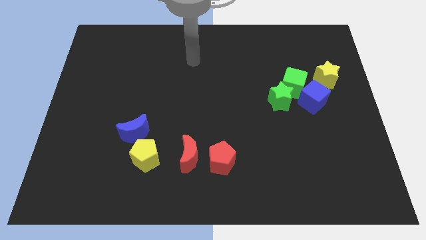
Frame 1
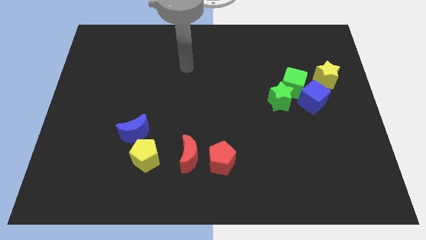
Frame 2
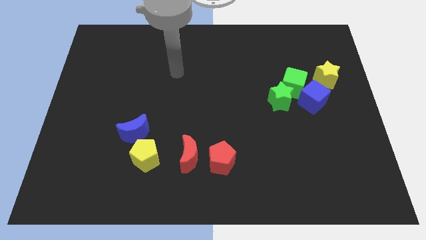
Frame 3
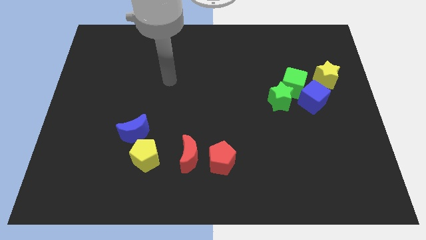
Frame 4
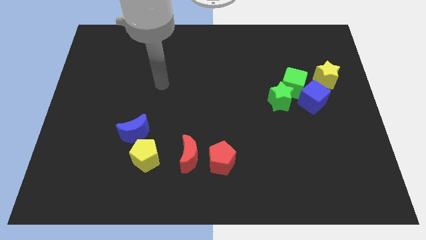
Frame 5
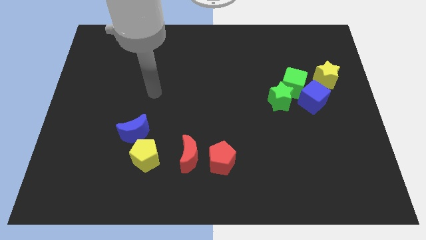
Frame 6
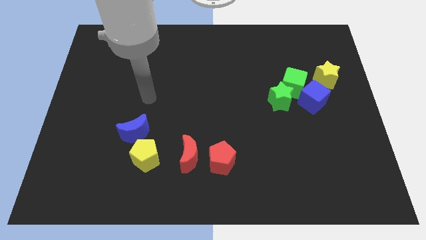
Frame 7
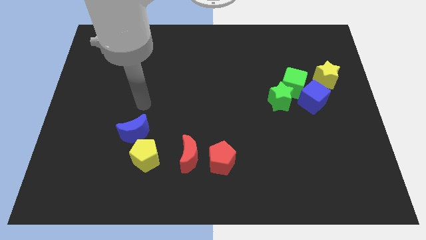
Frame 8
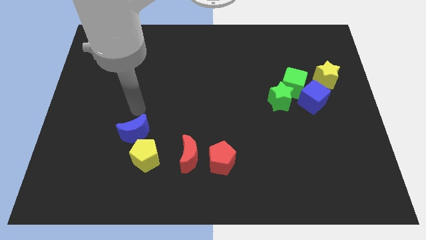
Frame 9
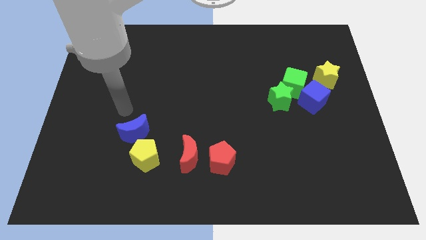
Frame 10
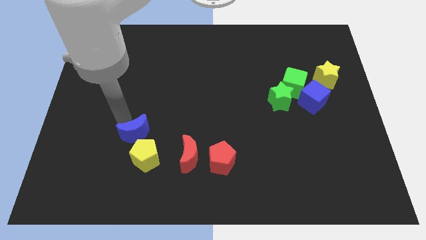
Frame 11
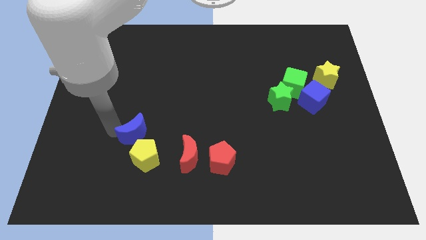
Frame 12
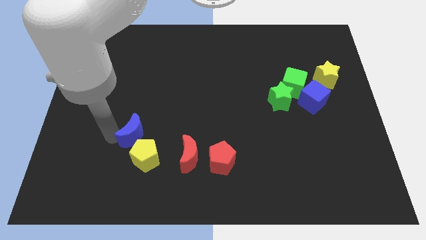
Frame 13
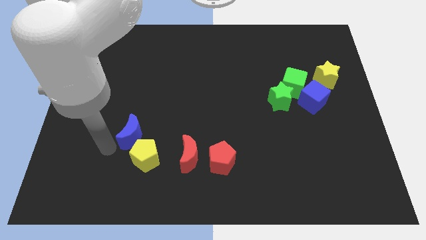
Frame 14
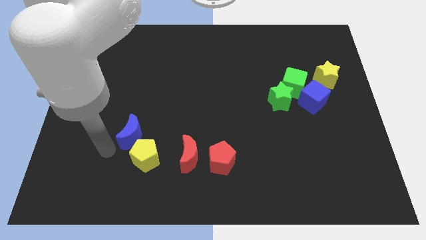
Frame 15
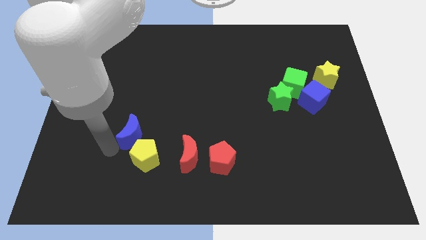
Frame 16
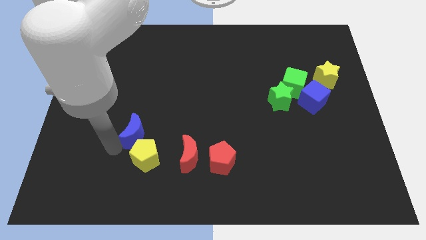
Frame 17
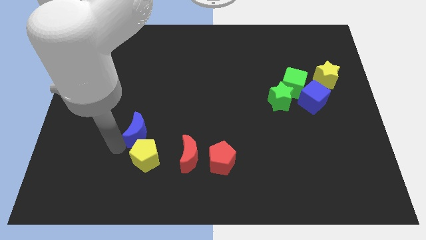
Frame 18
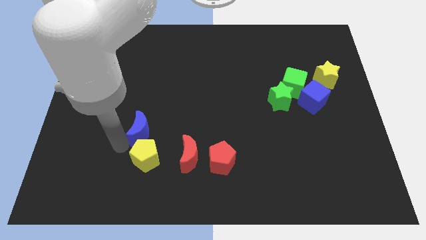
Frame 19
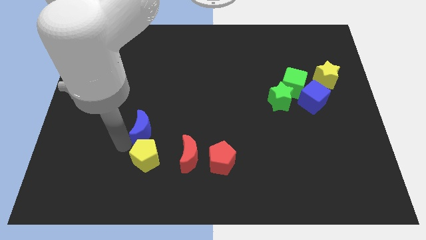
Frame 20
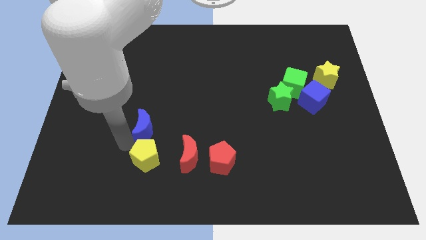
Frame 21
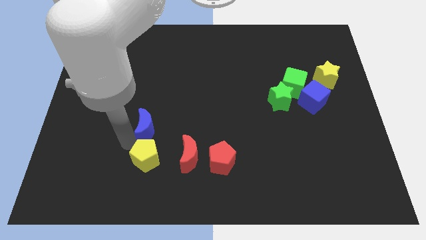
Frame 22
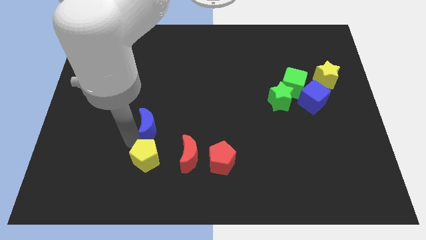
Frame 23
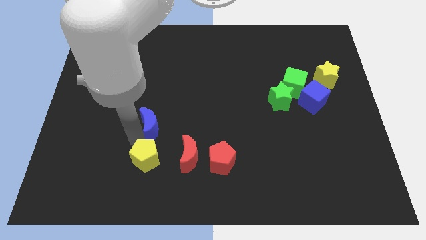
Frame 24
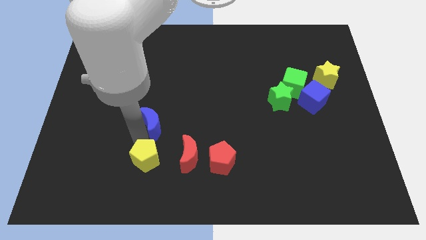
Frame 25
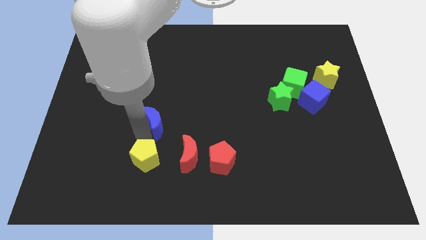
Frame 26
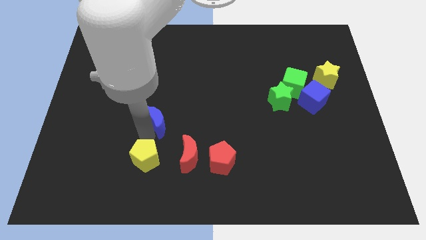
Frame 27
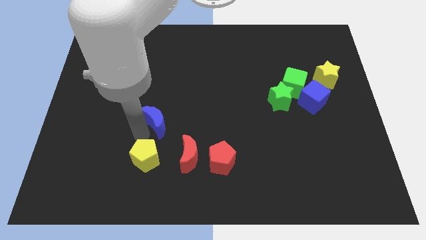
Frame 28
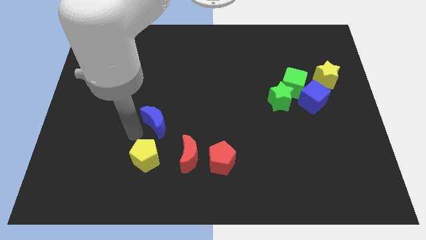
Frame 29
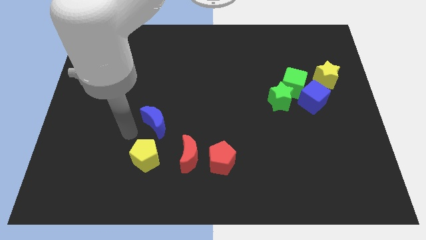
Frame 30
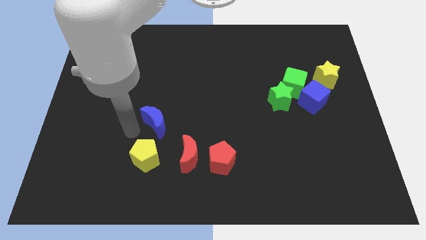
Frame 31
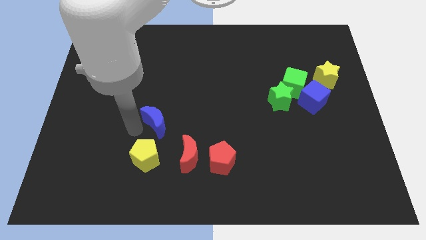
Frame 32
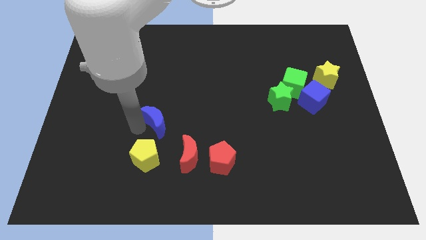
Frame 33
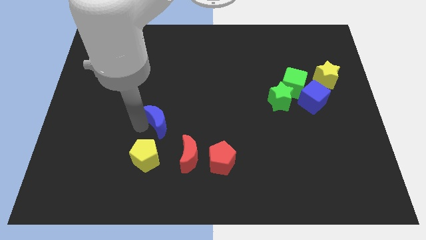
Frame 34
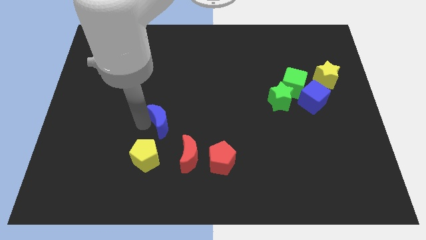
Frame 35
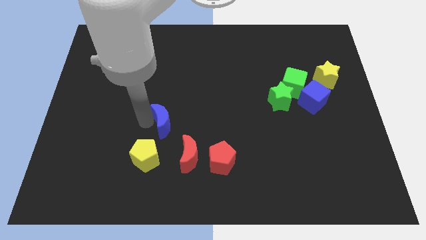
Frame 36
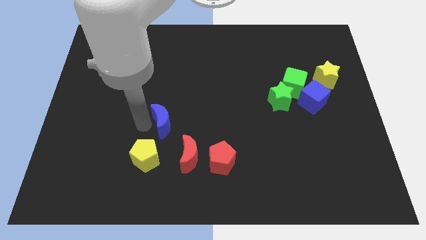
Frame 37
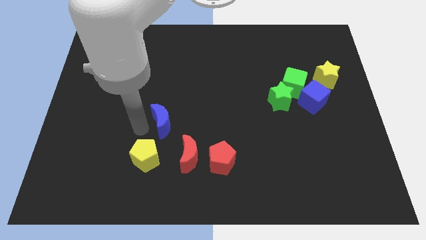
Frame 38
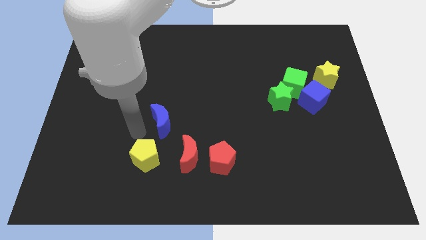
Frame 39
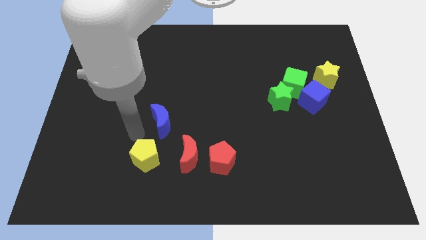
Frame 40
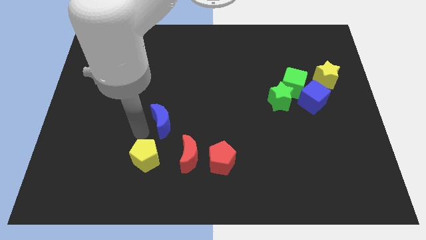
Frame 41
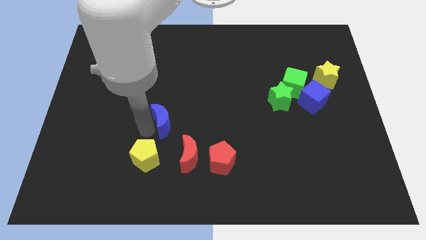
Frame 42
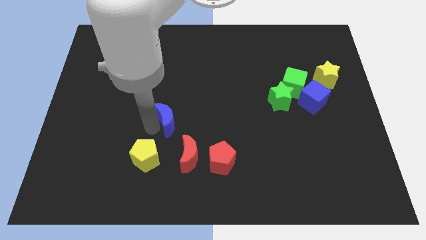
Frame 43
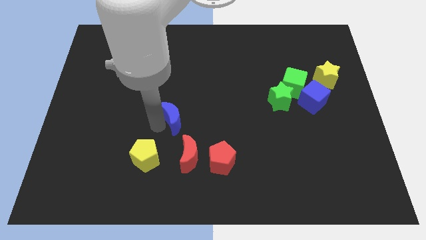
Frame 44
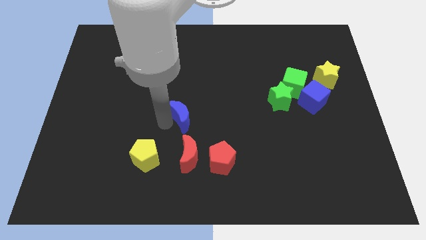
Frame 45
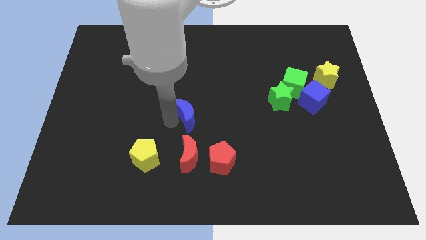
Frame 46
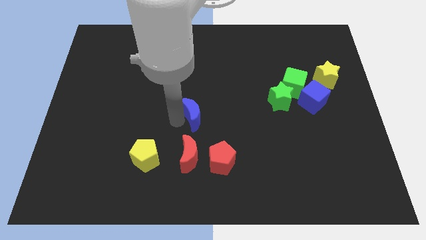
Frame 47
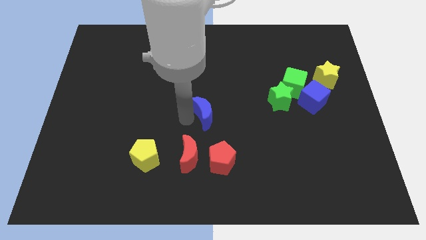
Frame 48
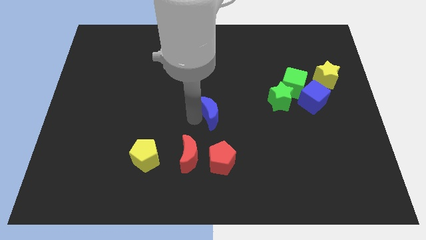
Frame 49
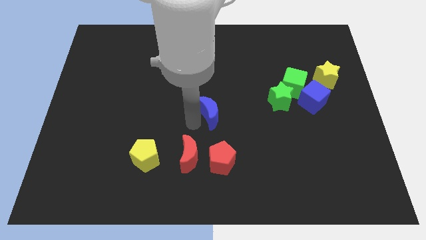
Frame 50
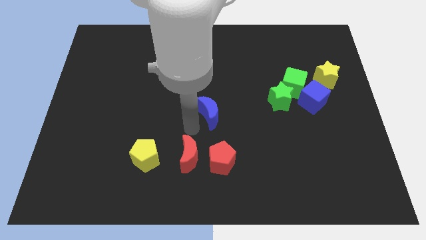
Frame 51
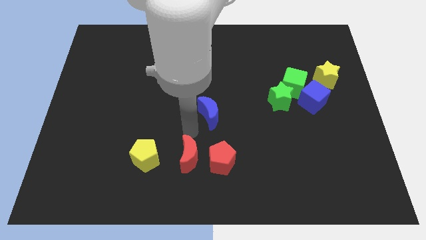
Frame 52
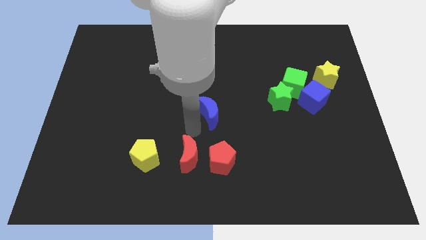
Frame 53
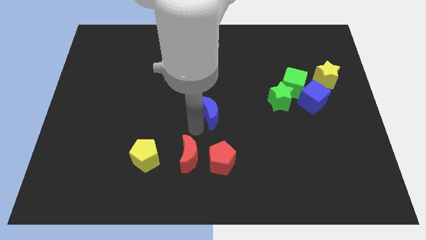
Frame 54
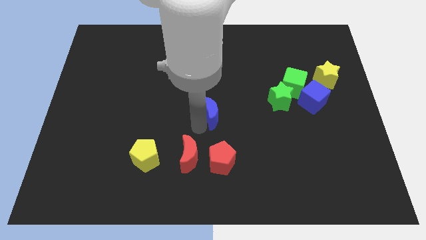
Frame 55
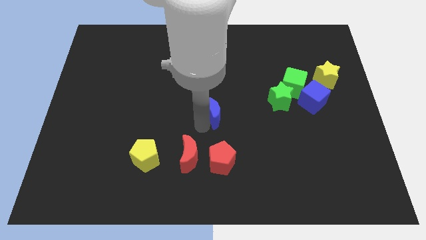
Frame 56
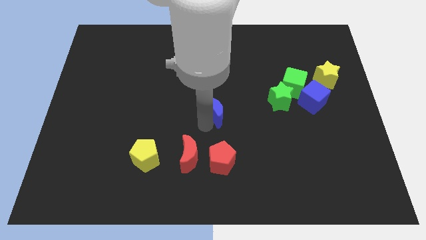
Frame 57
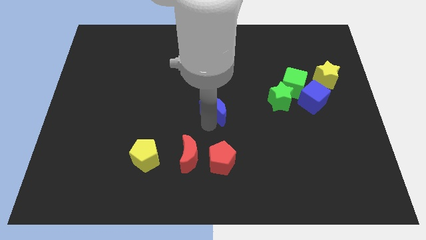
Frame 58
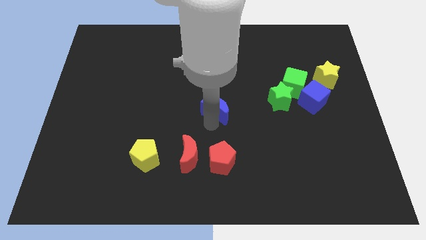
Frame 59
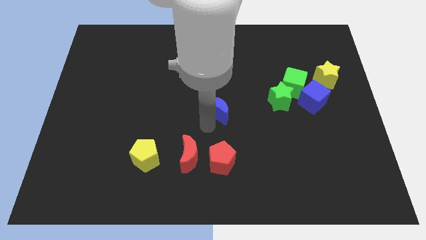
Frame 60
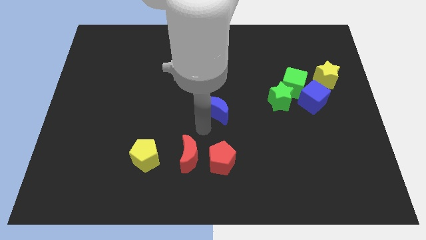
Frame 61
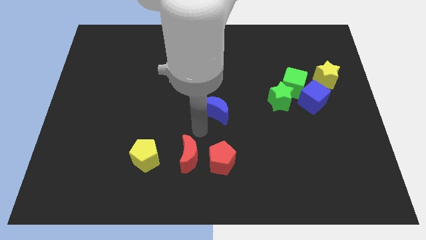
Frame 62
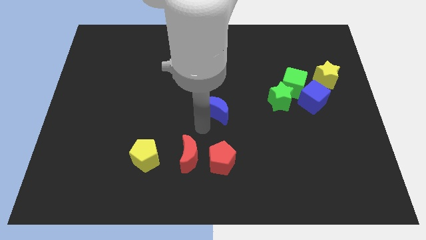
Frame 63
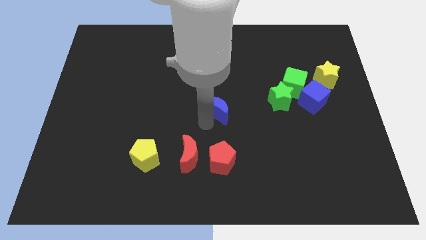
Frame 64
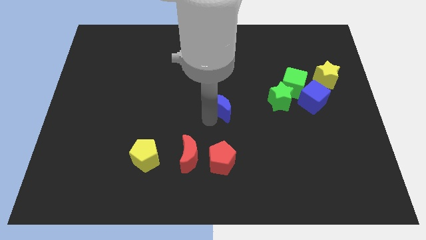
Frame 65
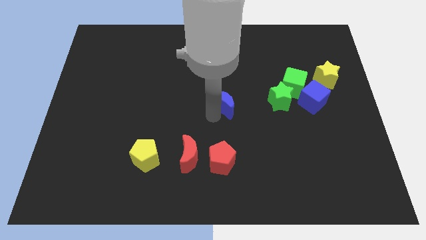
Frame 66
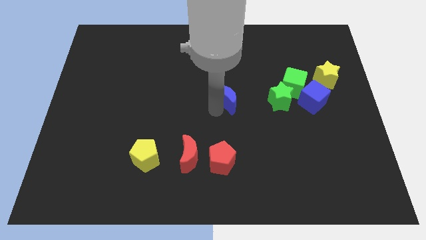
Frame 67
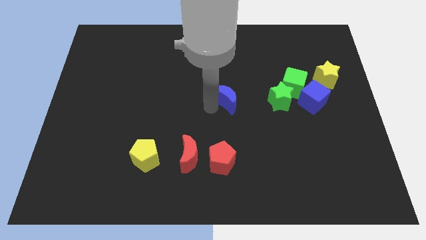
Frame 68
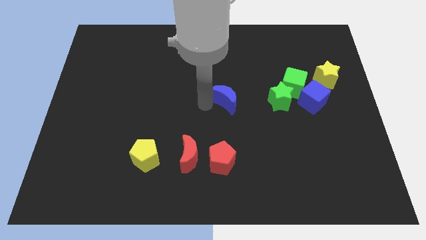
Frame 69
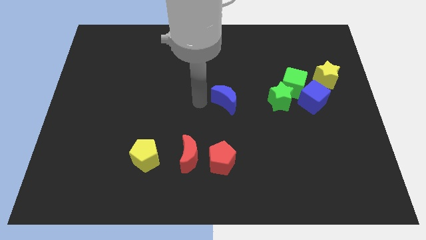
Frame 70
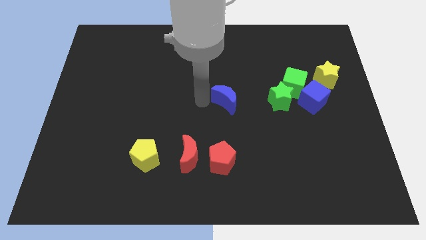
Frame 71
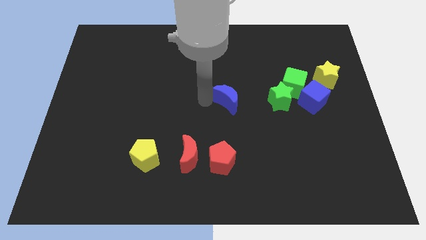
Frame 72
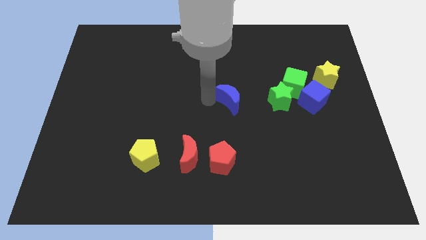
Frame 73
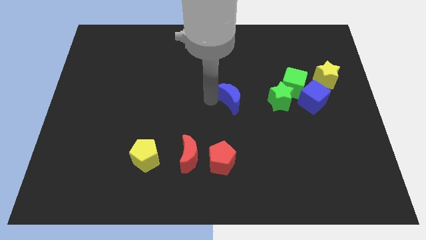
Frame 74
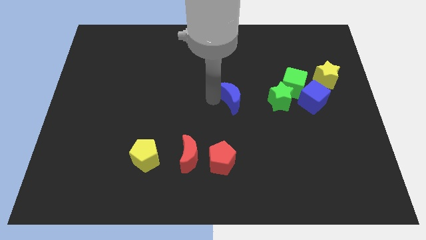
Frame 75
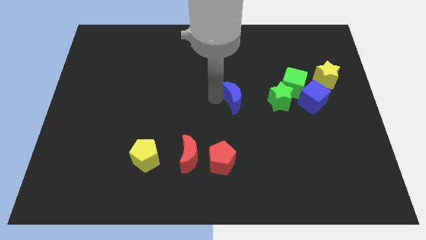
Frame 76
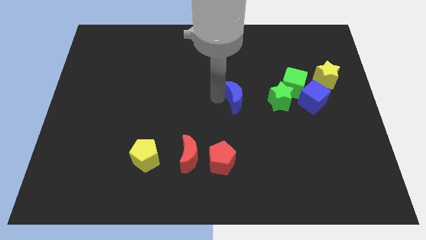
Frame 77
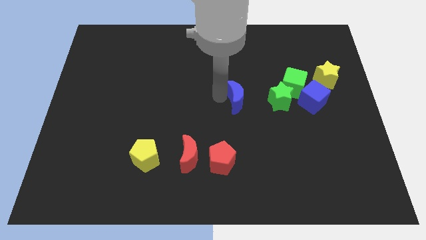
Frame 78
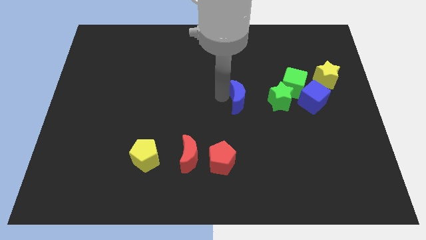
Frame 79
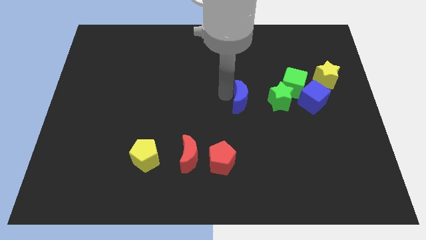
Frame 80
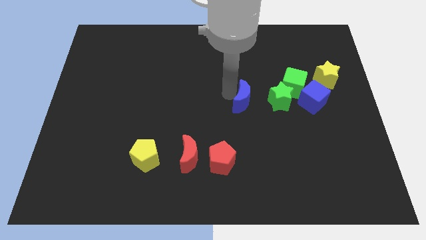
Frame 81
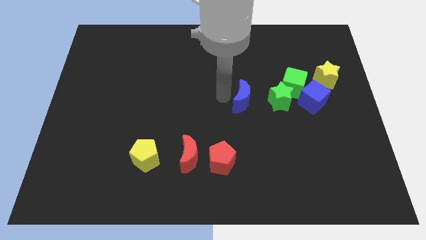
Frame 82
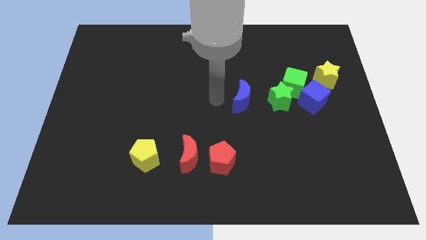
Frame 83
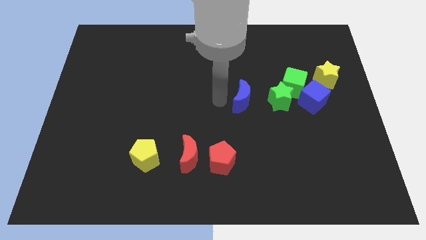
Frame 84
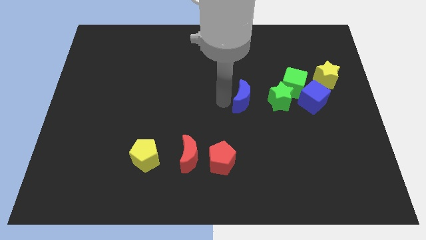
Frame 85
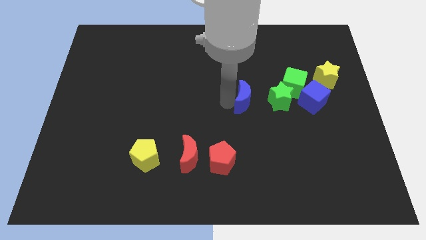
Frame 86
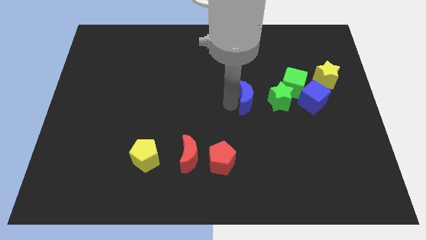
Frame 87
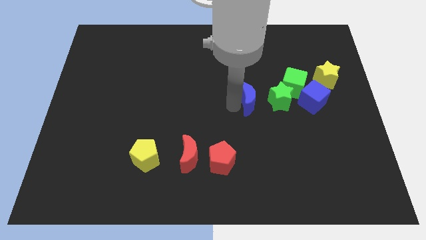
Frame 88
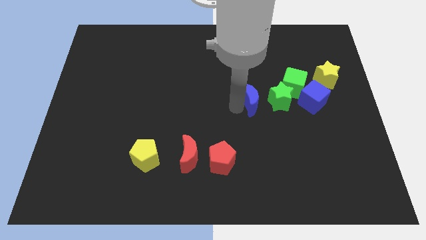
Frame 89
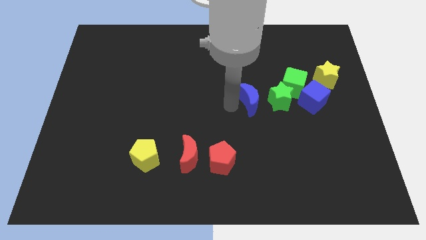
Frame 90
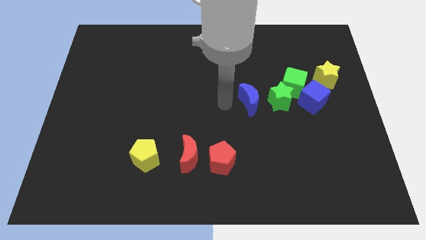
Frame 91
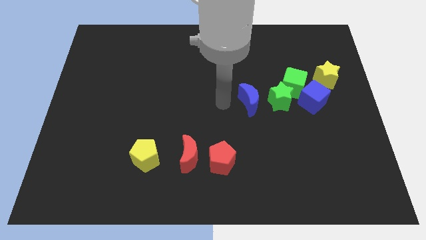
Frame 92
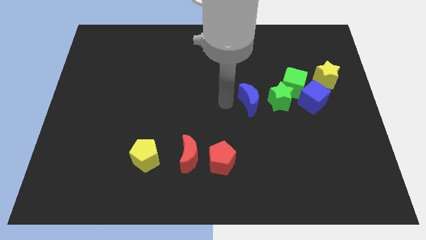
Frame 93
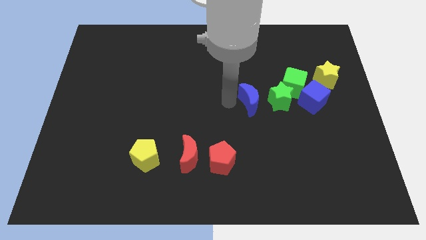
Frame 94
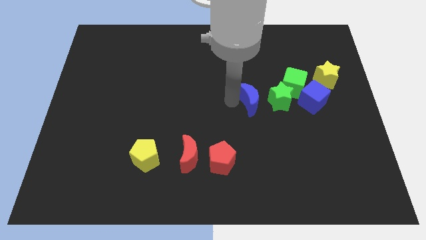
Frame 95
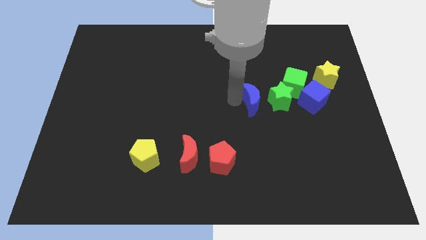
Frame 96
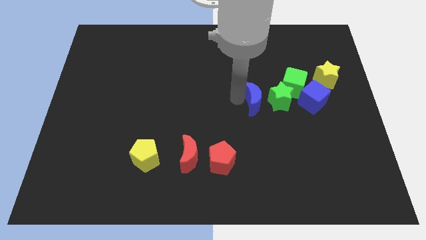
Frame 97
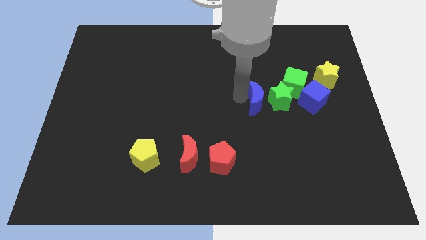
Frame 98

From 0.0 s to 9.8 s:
move the blue moon next to the green star
